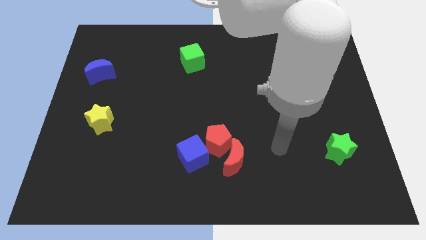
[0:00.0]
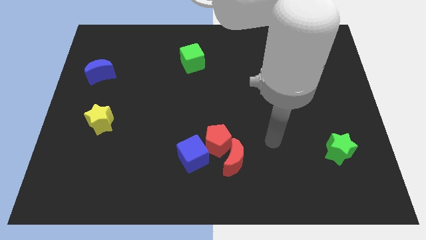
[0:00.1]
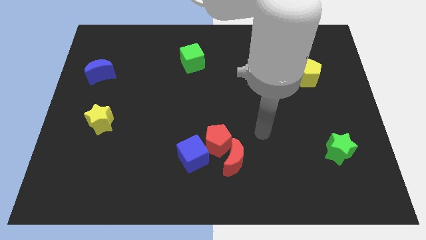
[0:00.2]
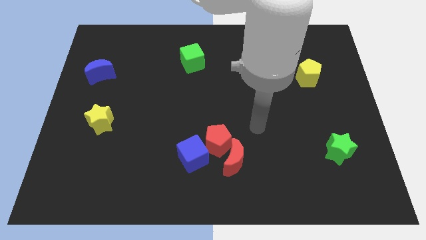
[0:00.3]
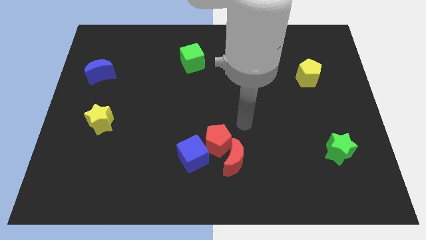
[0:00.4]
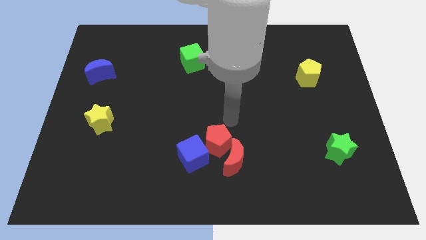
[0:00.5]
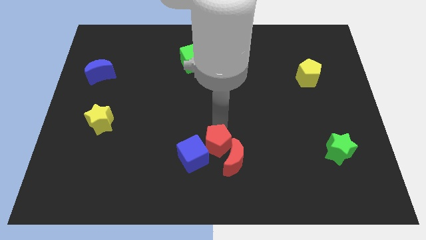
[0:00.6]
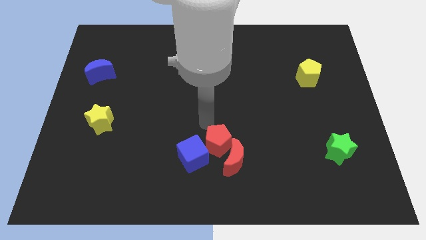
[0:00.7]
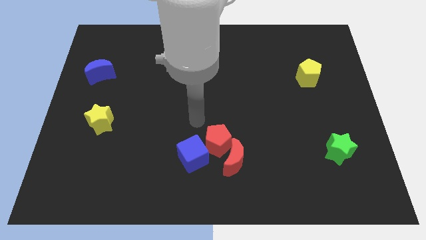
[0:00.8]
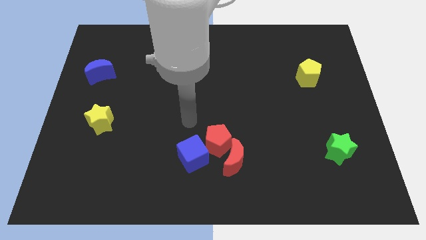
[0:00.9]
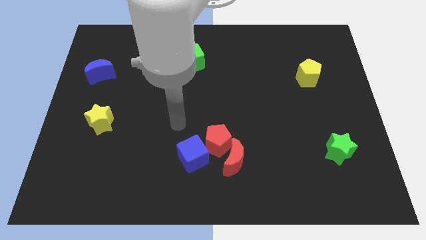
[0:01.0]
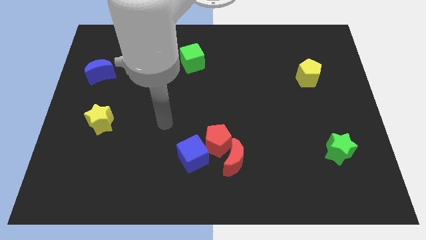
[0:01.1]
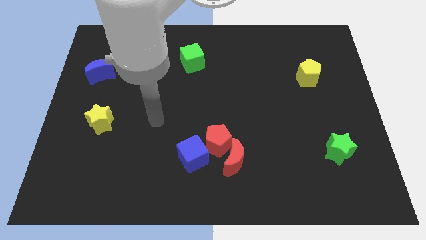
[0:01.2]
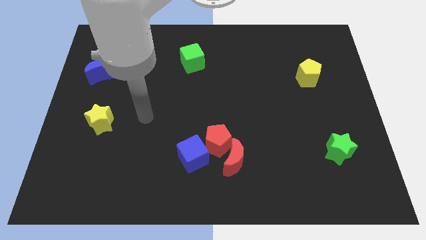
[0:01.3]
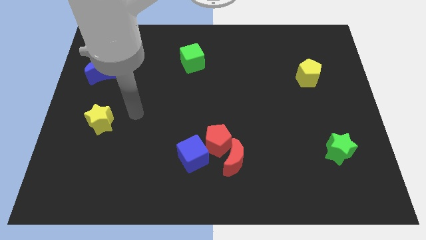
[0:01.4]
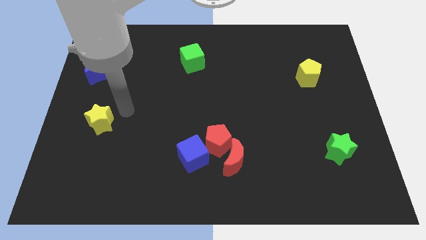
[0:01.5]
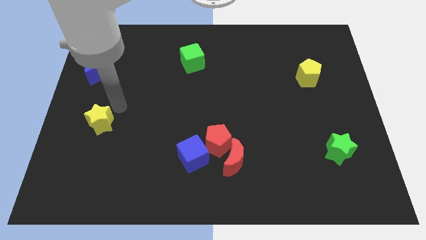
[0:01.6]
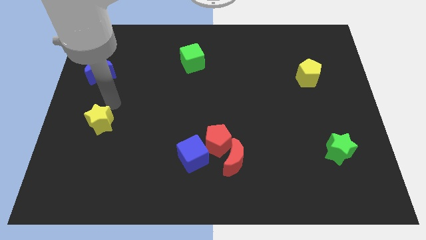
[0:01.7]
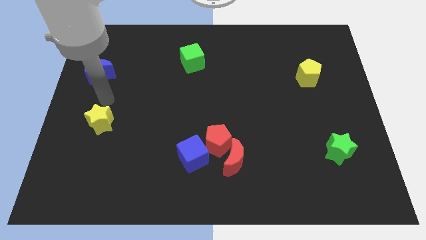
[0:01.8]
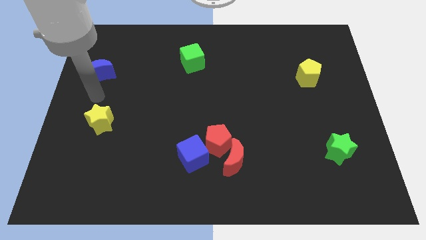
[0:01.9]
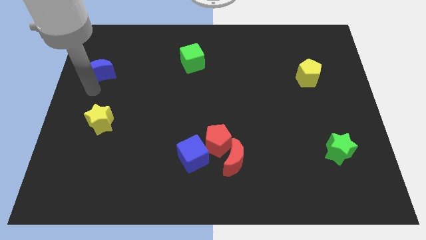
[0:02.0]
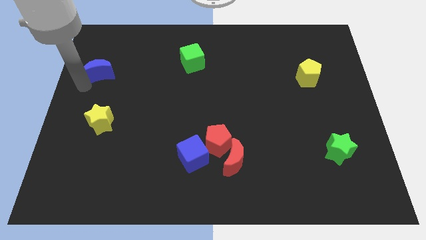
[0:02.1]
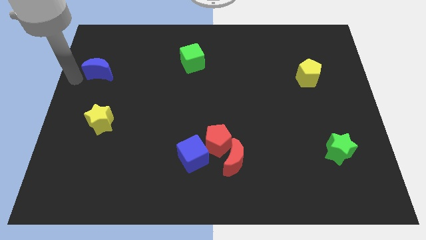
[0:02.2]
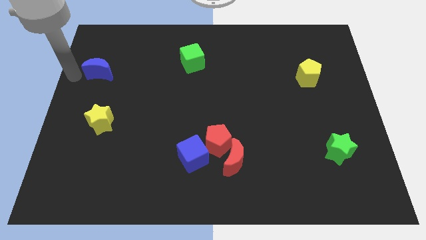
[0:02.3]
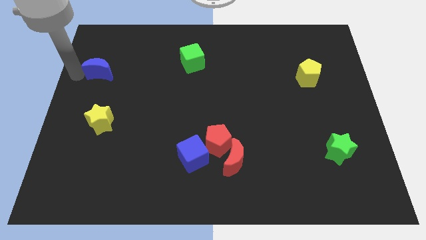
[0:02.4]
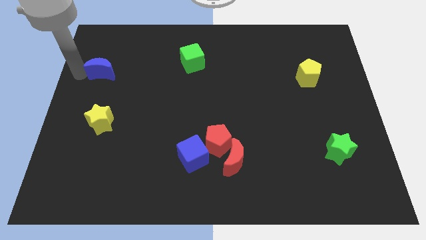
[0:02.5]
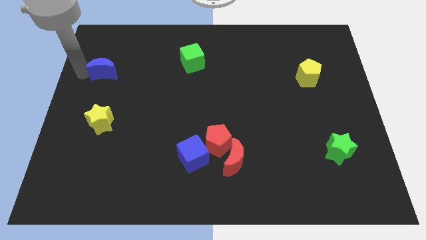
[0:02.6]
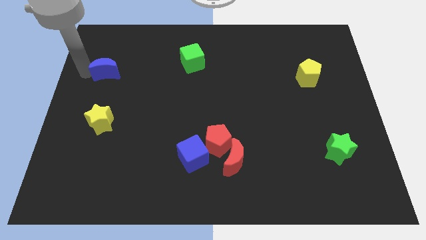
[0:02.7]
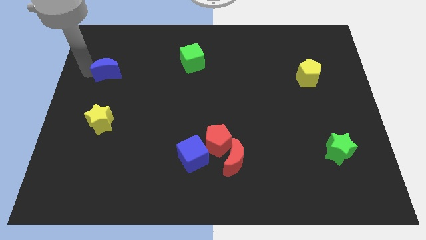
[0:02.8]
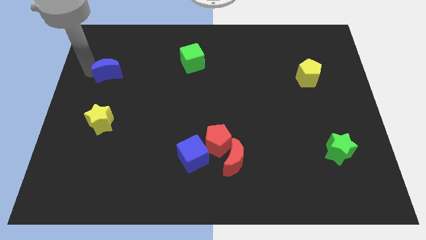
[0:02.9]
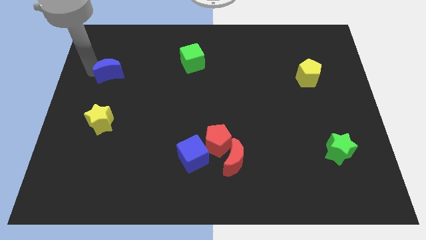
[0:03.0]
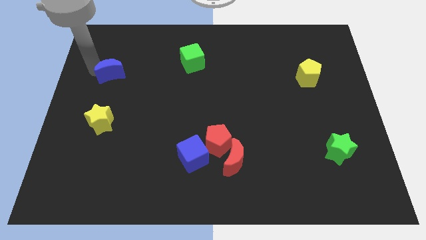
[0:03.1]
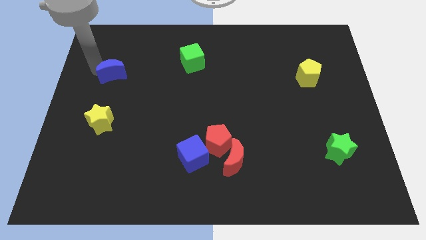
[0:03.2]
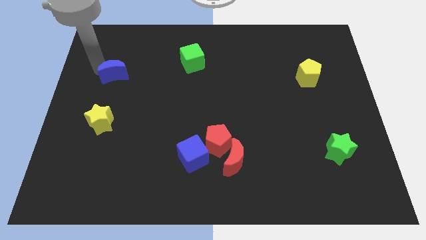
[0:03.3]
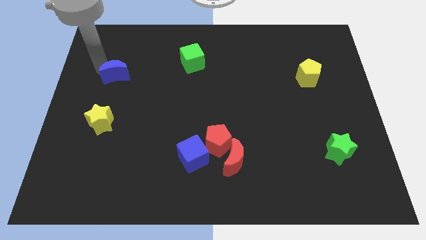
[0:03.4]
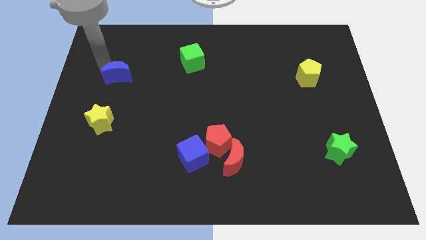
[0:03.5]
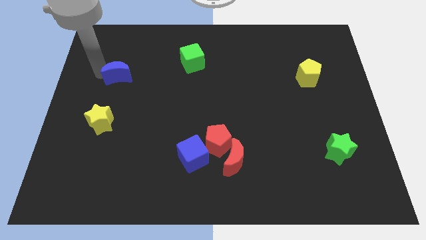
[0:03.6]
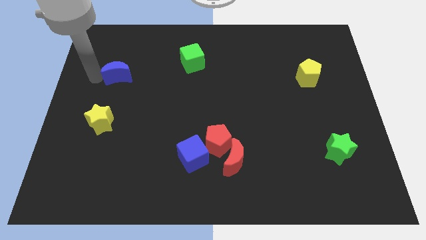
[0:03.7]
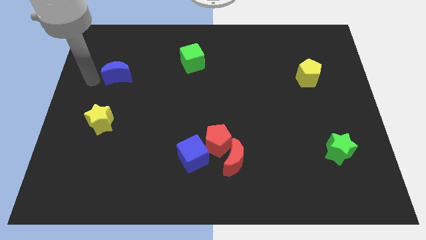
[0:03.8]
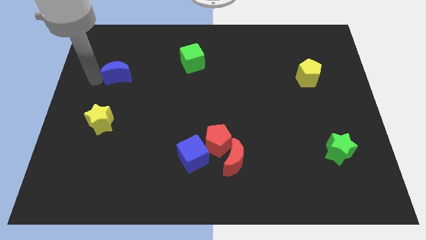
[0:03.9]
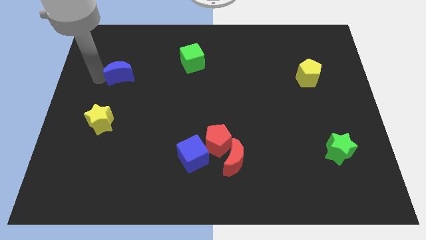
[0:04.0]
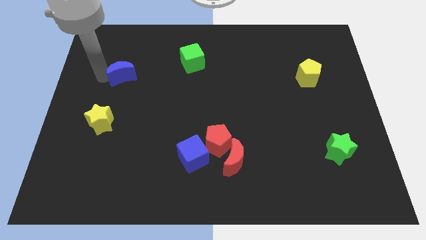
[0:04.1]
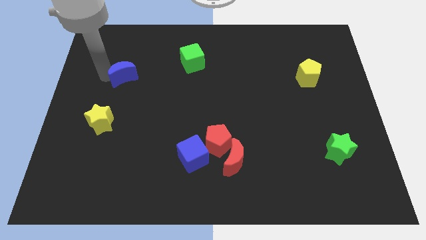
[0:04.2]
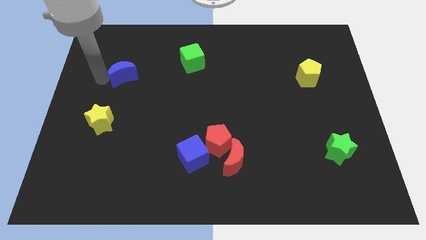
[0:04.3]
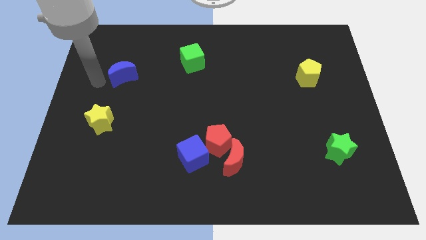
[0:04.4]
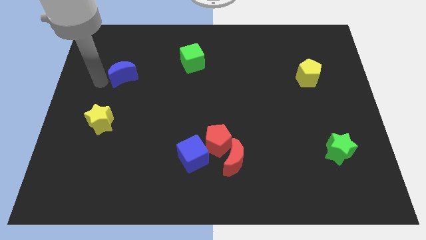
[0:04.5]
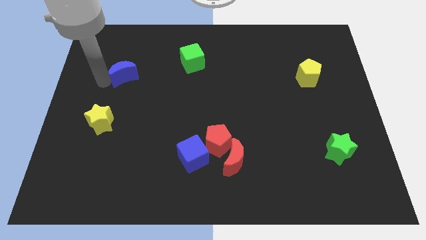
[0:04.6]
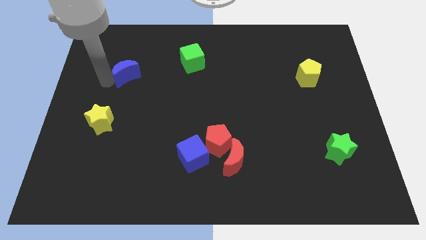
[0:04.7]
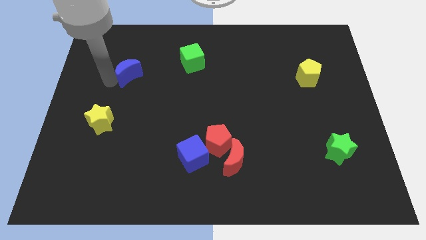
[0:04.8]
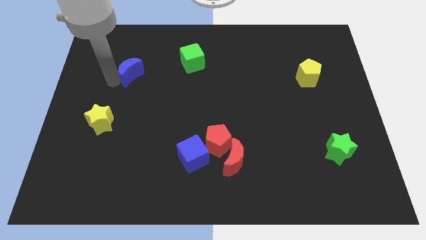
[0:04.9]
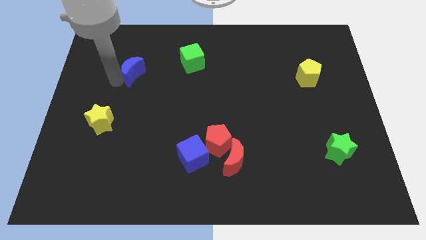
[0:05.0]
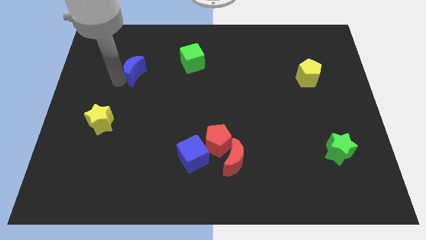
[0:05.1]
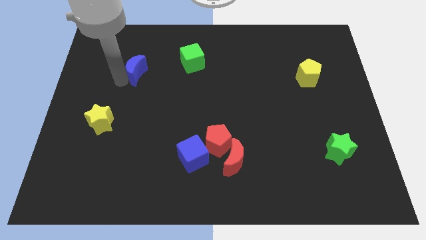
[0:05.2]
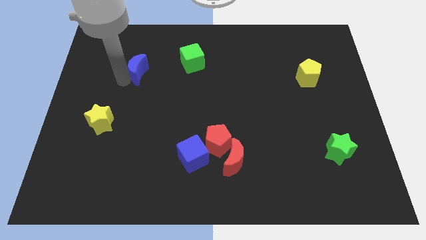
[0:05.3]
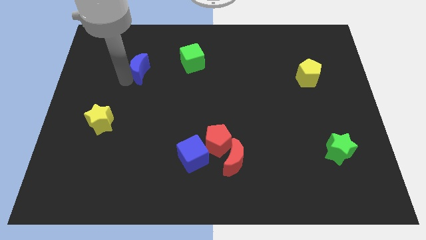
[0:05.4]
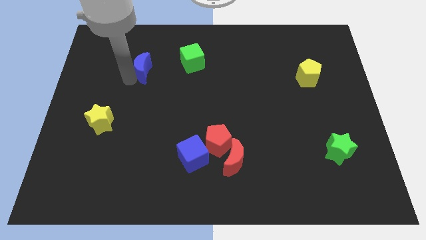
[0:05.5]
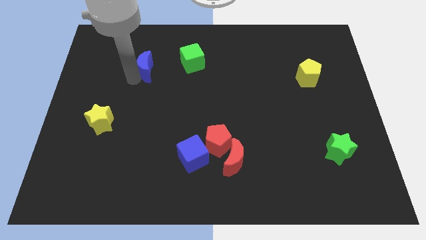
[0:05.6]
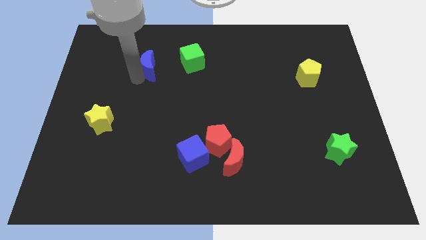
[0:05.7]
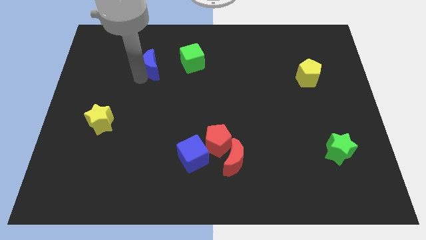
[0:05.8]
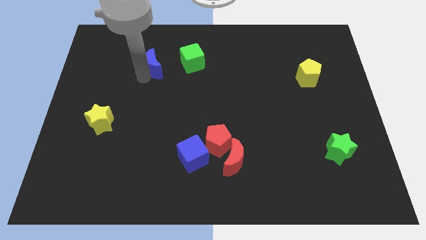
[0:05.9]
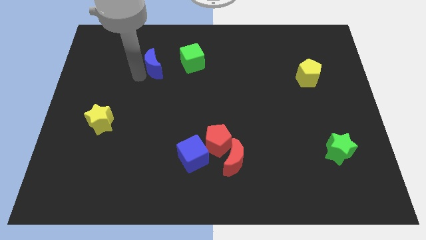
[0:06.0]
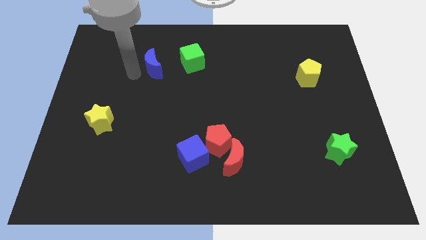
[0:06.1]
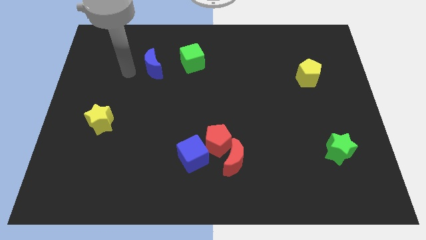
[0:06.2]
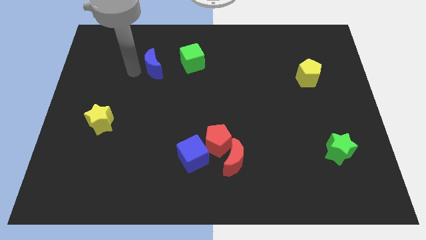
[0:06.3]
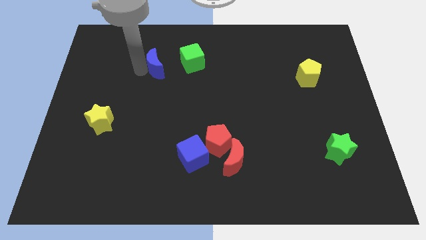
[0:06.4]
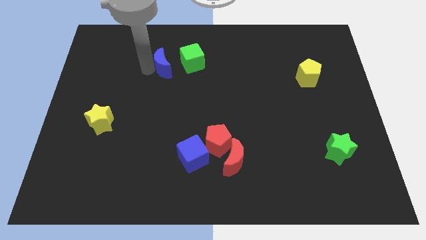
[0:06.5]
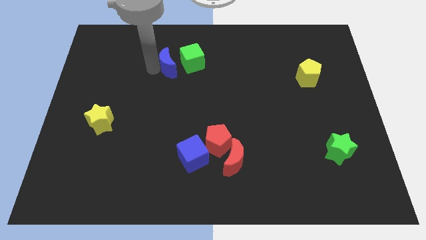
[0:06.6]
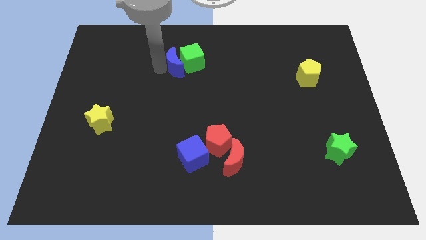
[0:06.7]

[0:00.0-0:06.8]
slide the blue moon close to the green cube
